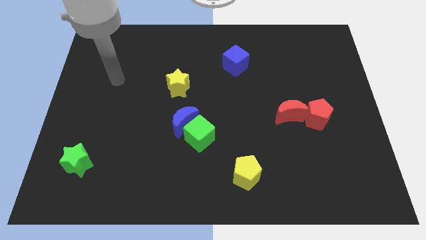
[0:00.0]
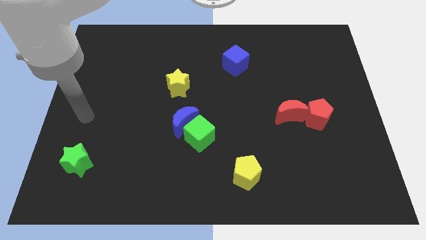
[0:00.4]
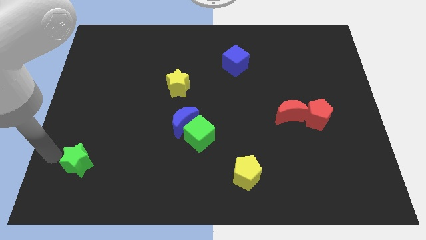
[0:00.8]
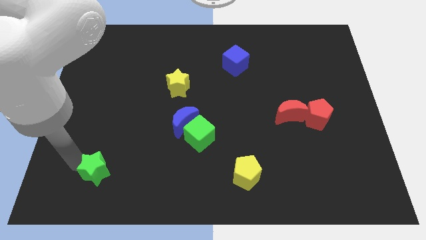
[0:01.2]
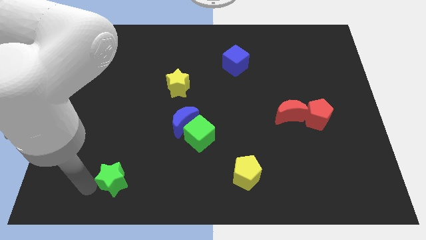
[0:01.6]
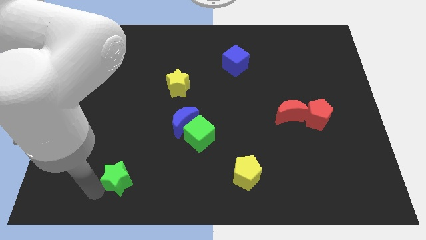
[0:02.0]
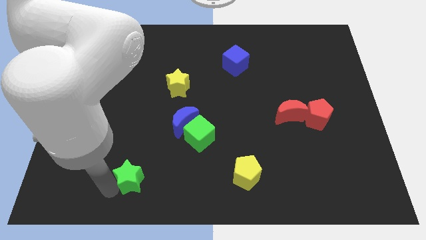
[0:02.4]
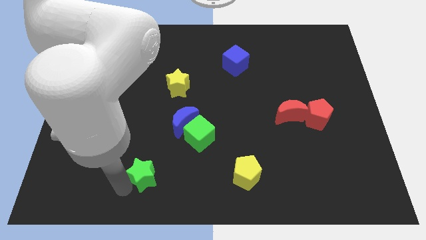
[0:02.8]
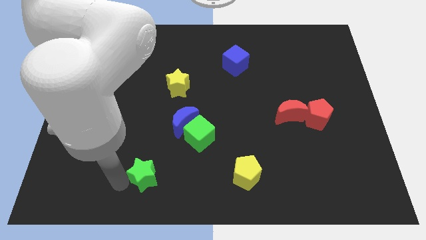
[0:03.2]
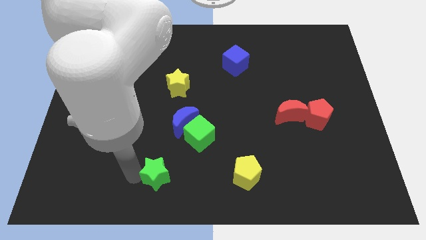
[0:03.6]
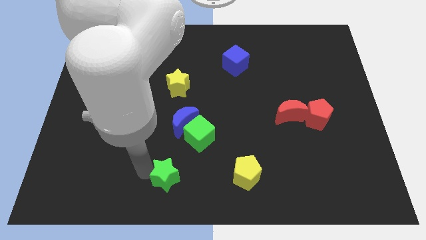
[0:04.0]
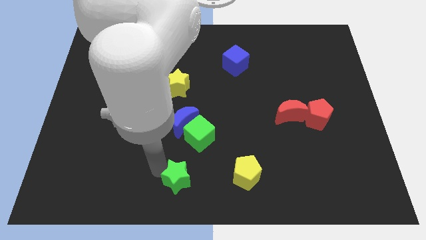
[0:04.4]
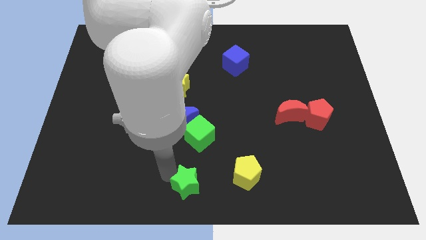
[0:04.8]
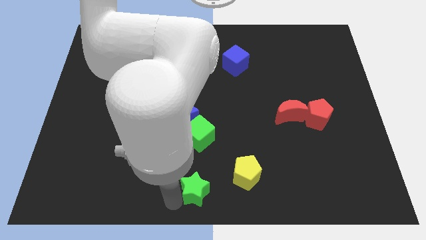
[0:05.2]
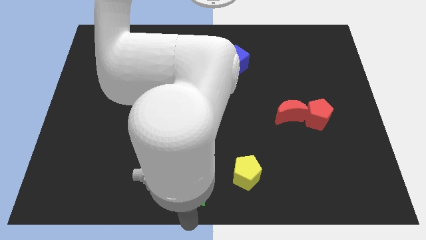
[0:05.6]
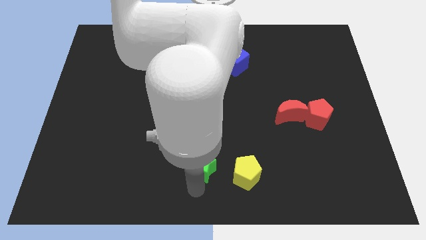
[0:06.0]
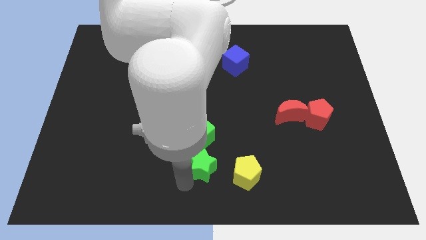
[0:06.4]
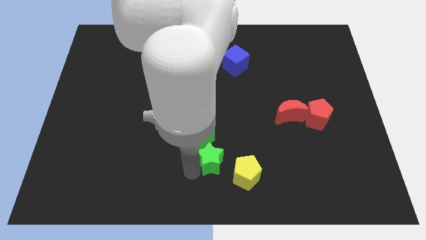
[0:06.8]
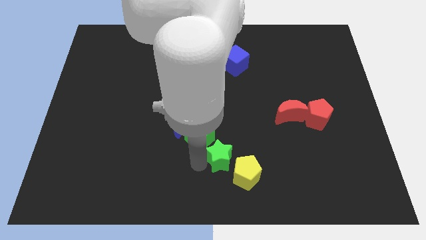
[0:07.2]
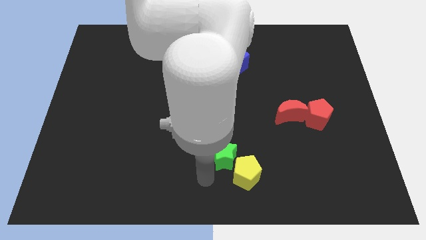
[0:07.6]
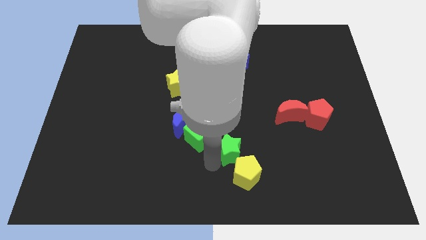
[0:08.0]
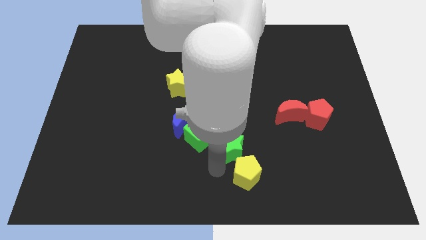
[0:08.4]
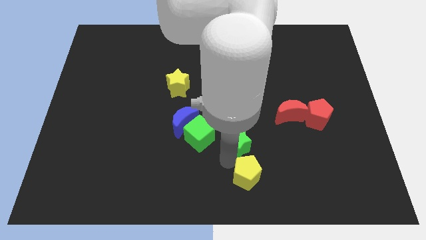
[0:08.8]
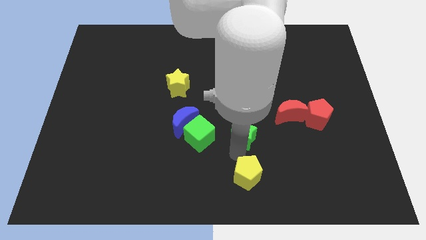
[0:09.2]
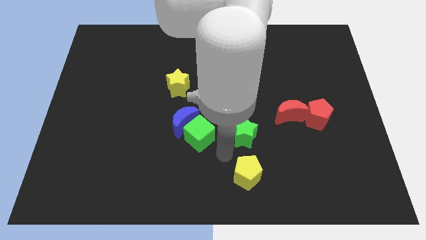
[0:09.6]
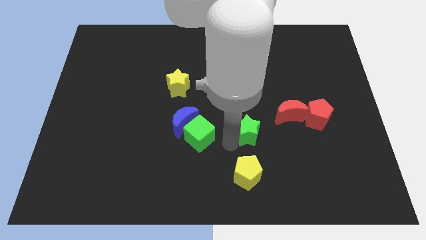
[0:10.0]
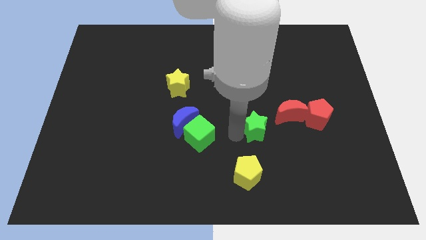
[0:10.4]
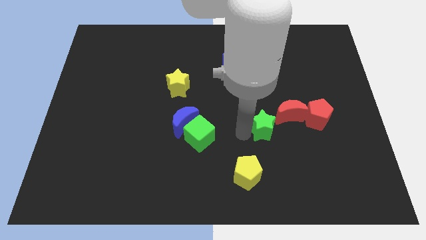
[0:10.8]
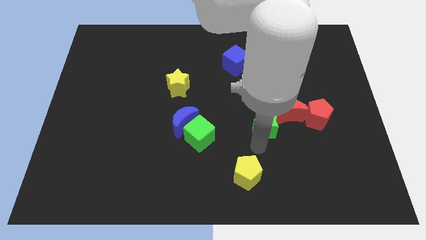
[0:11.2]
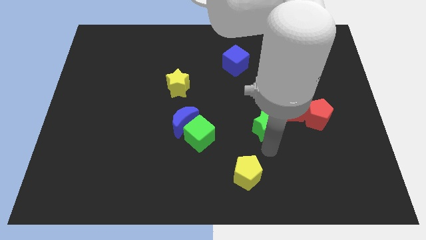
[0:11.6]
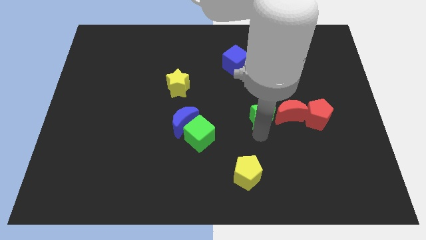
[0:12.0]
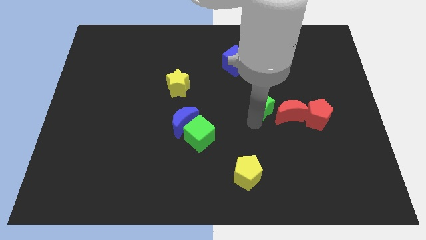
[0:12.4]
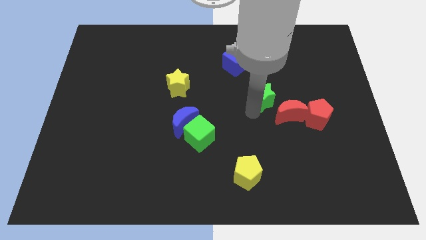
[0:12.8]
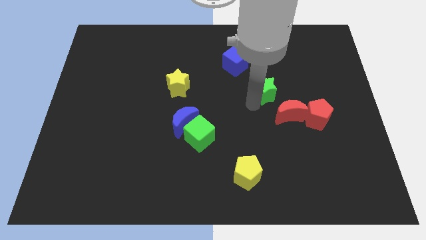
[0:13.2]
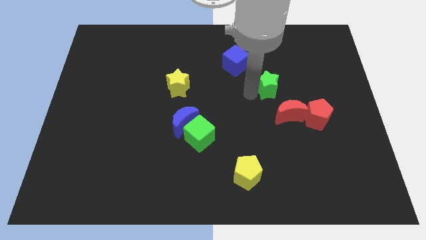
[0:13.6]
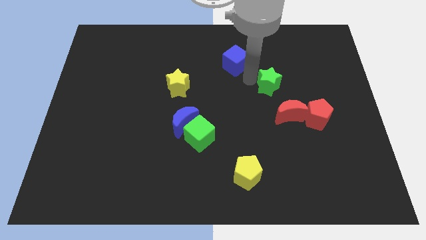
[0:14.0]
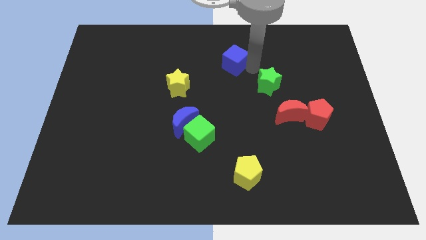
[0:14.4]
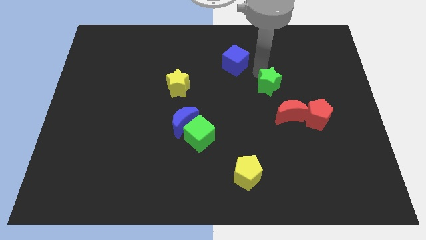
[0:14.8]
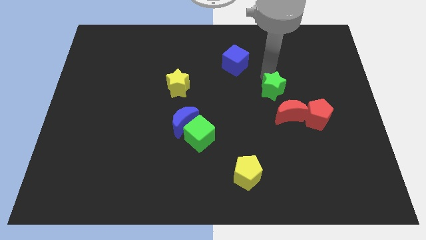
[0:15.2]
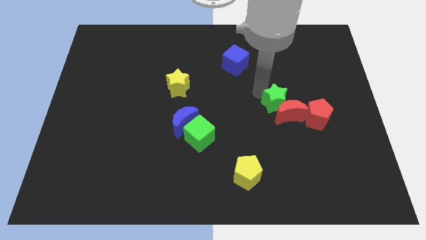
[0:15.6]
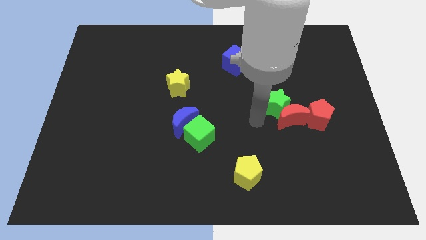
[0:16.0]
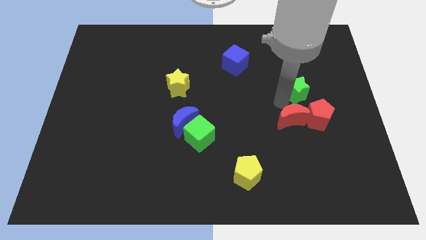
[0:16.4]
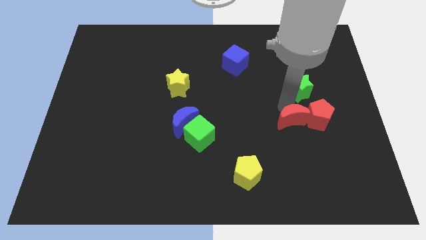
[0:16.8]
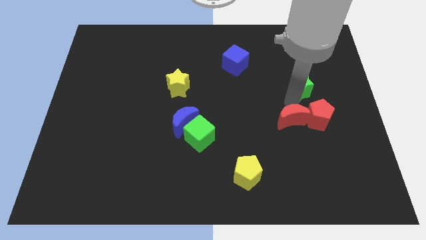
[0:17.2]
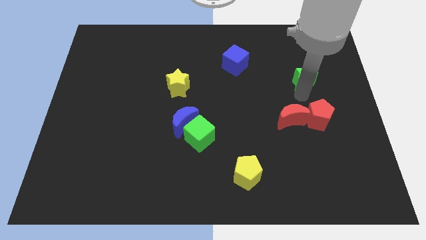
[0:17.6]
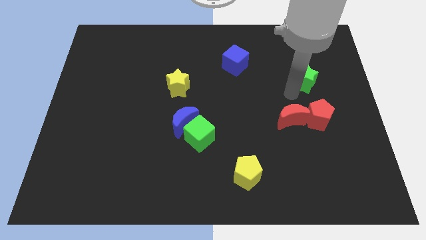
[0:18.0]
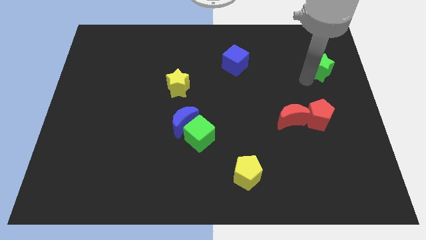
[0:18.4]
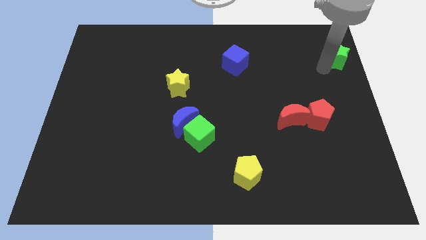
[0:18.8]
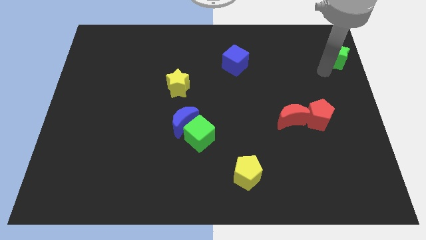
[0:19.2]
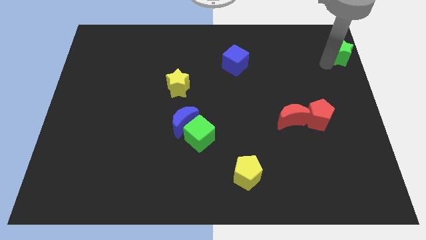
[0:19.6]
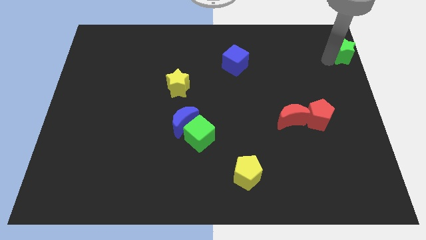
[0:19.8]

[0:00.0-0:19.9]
push the green star to the top right corner

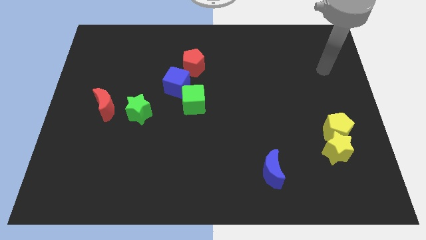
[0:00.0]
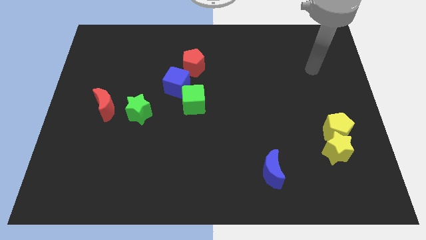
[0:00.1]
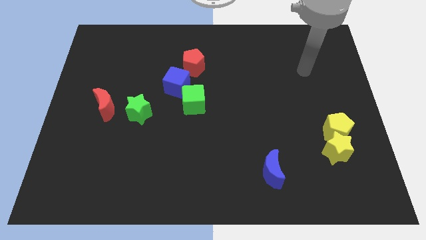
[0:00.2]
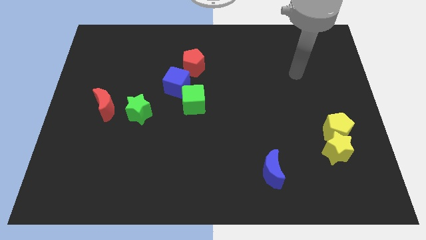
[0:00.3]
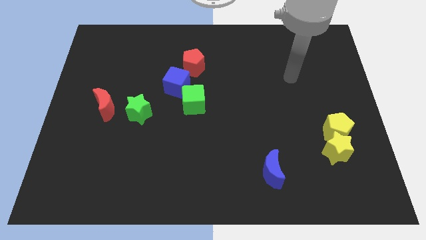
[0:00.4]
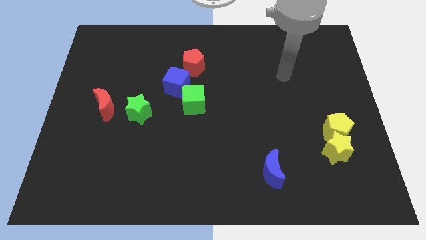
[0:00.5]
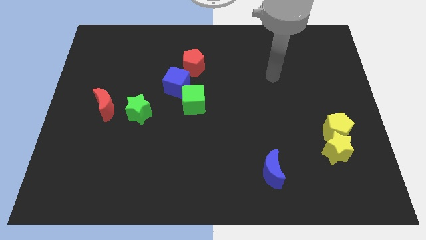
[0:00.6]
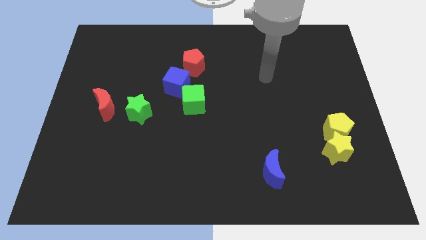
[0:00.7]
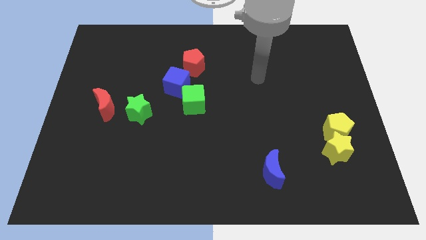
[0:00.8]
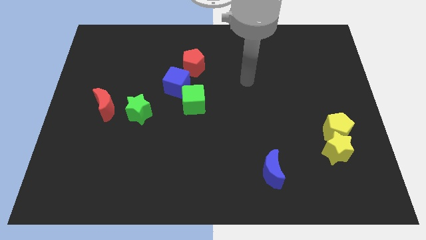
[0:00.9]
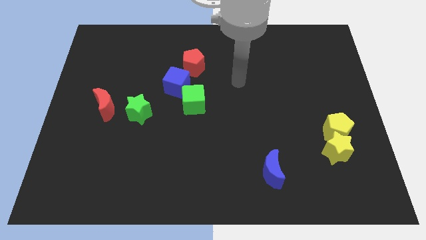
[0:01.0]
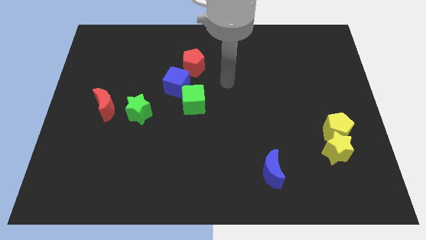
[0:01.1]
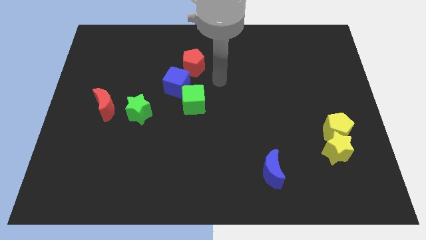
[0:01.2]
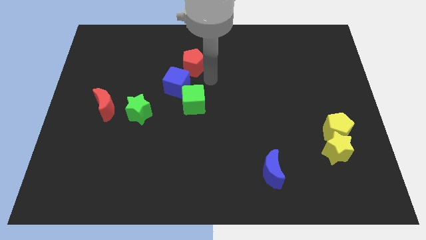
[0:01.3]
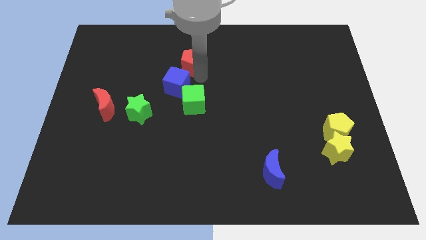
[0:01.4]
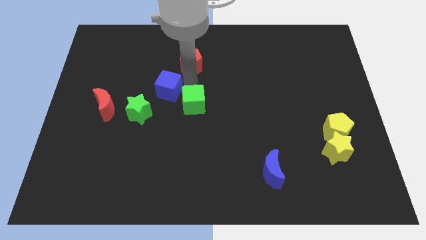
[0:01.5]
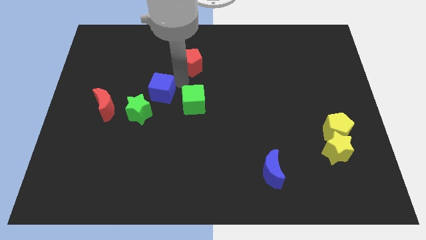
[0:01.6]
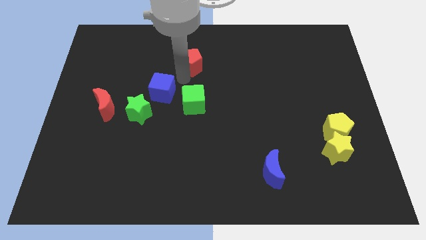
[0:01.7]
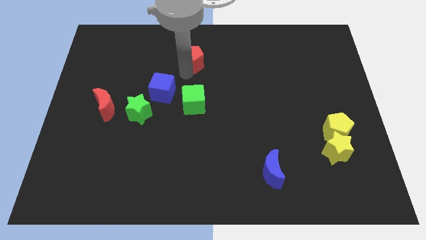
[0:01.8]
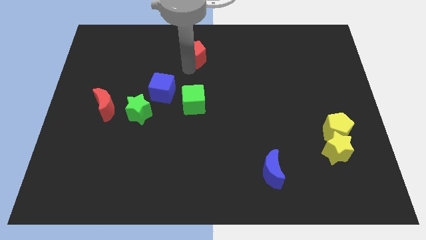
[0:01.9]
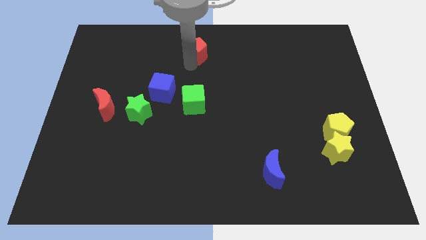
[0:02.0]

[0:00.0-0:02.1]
move the red pentagon to the top
